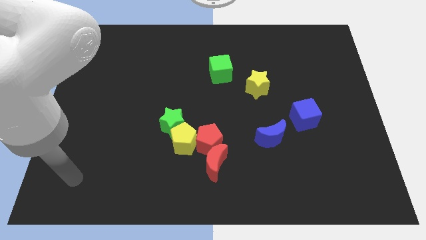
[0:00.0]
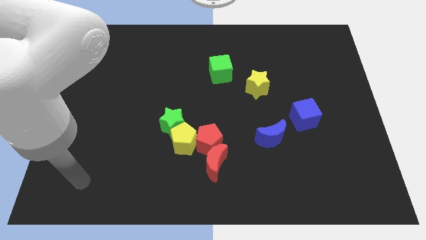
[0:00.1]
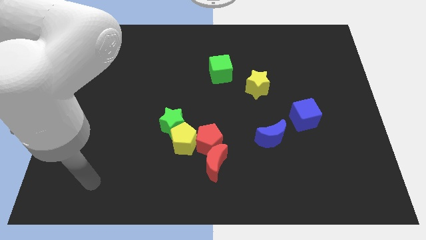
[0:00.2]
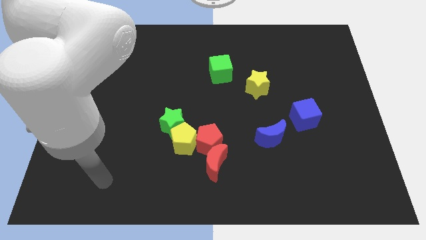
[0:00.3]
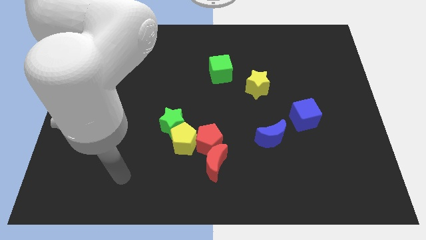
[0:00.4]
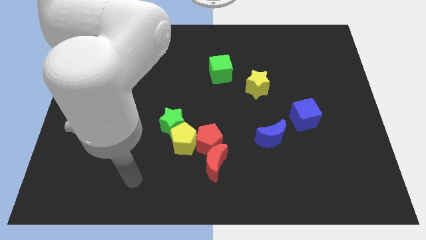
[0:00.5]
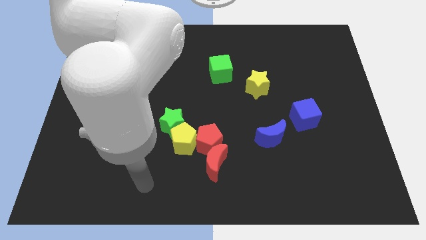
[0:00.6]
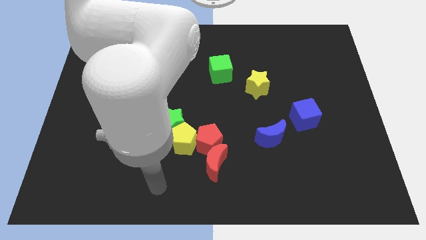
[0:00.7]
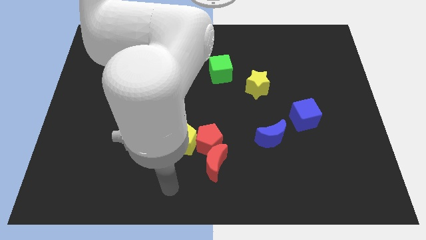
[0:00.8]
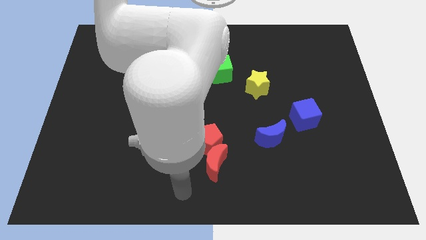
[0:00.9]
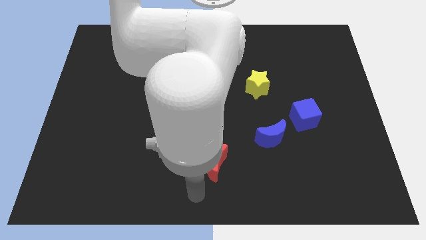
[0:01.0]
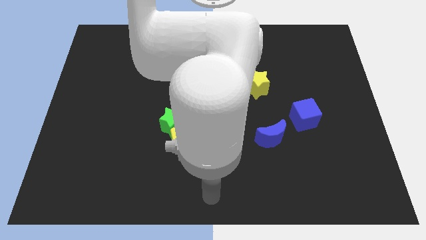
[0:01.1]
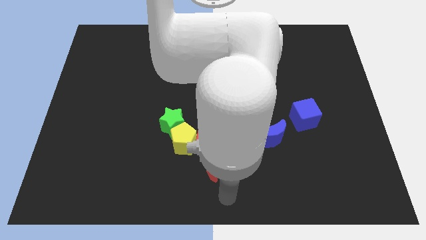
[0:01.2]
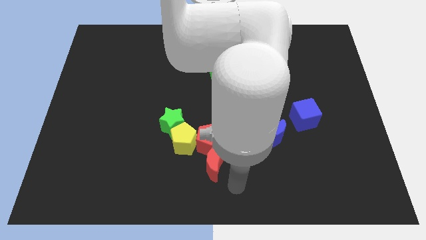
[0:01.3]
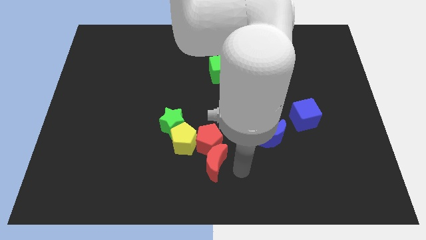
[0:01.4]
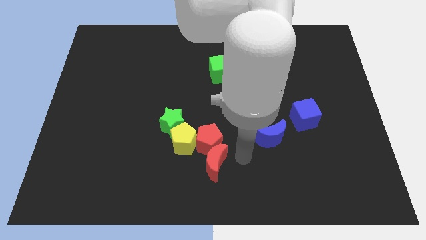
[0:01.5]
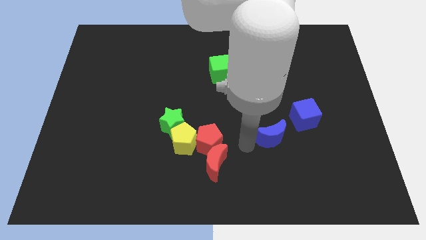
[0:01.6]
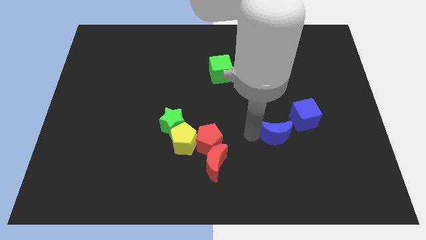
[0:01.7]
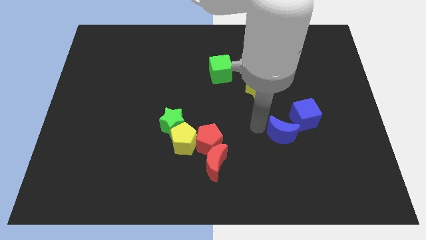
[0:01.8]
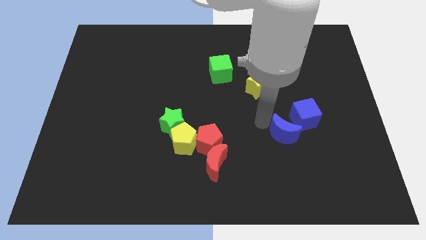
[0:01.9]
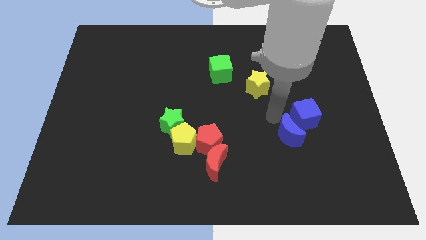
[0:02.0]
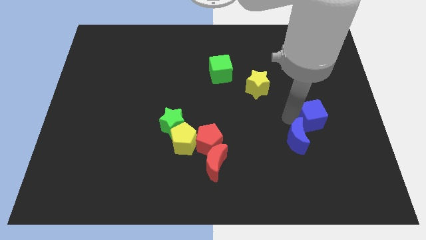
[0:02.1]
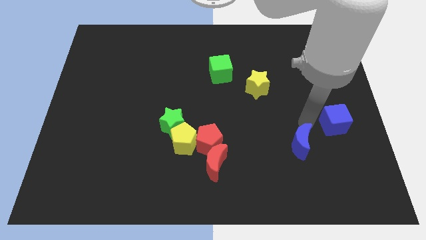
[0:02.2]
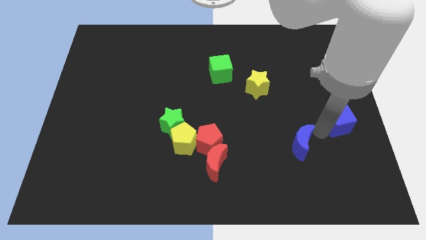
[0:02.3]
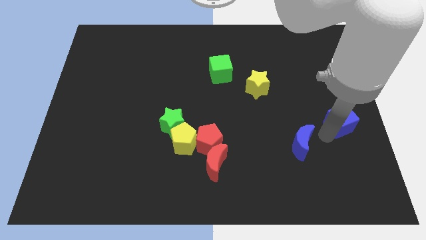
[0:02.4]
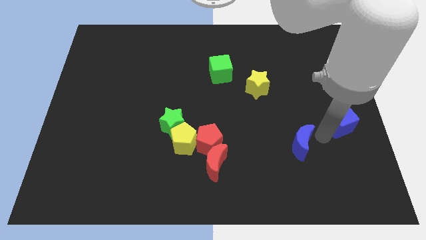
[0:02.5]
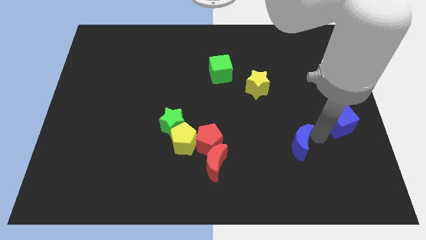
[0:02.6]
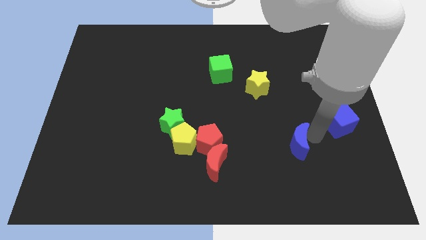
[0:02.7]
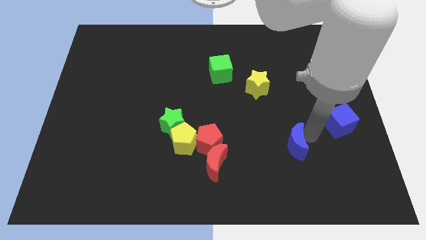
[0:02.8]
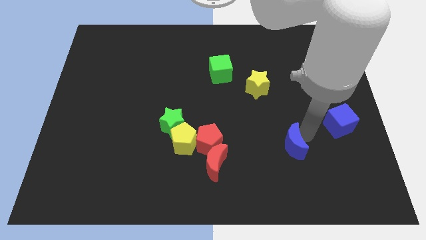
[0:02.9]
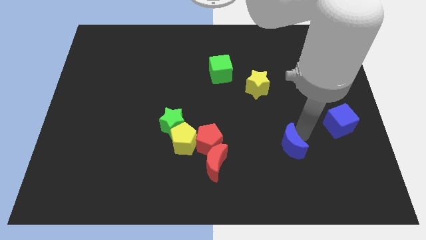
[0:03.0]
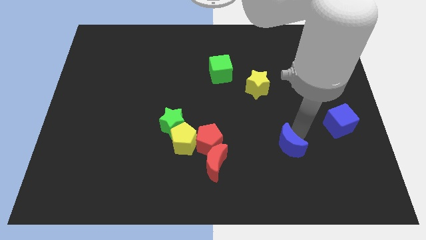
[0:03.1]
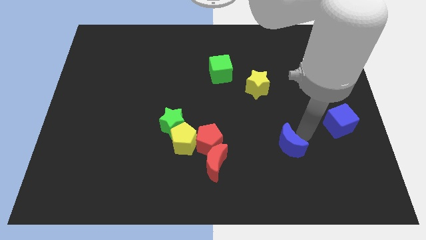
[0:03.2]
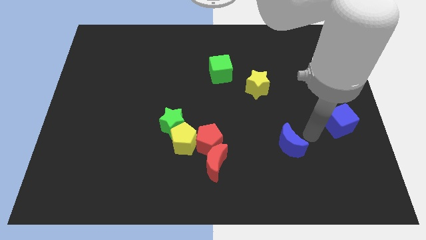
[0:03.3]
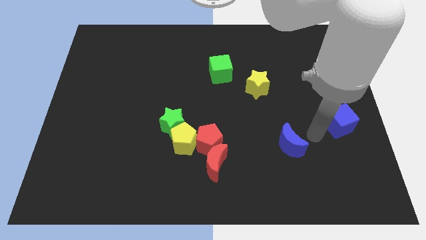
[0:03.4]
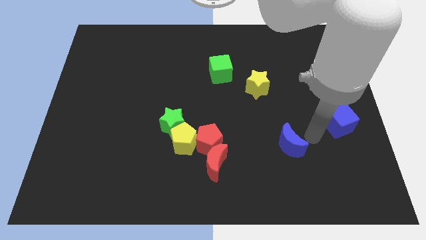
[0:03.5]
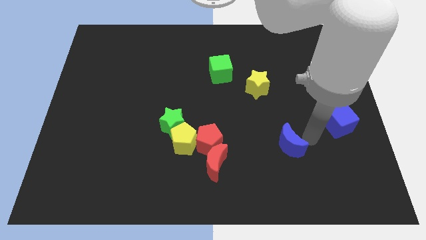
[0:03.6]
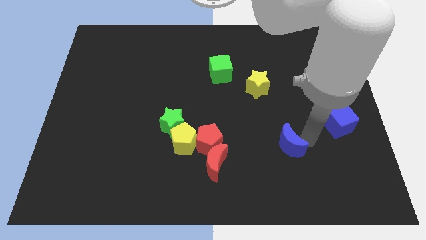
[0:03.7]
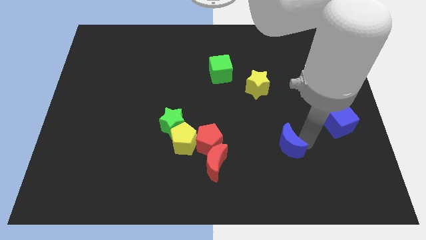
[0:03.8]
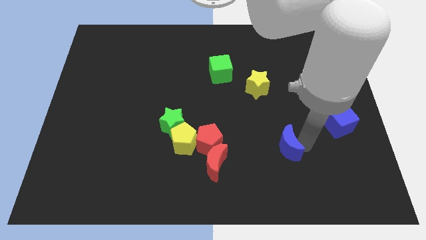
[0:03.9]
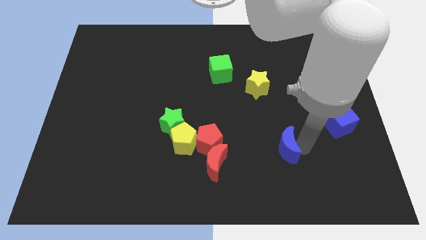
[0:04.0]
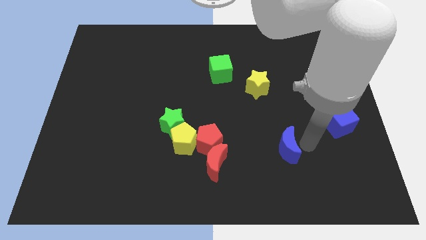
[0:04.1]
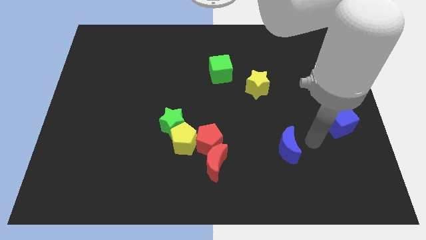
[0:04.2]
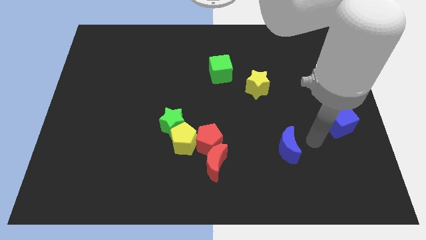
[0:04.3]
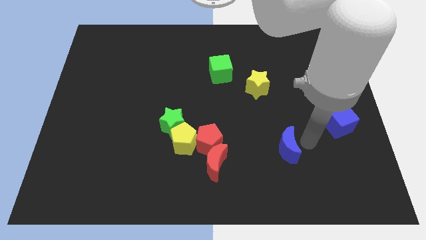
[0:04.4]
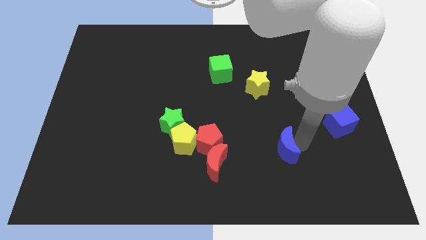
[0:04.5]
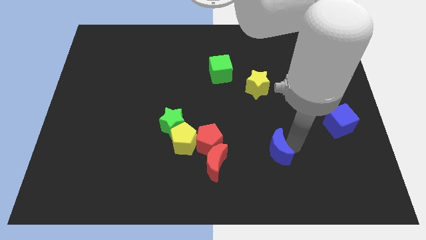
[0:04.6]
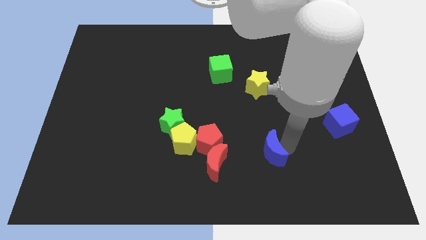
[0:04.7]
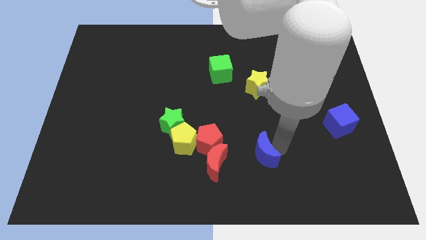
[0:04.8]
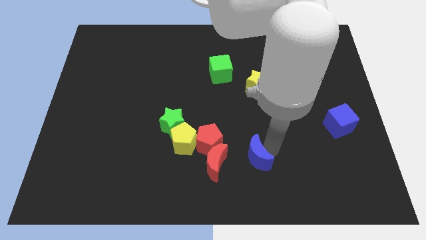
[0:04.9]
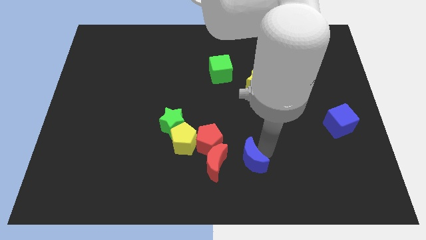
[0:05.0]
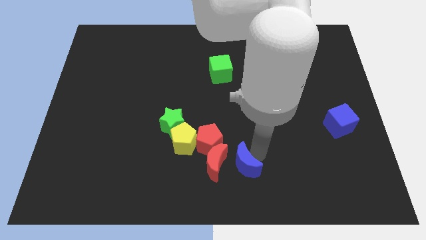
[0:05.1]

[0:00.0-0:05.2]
slide the blue moon to the bottom

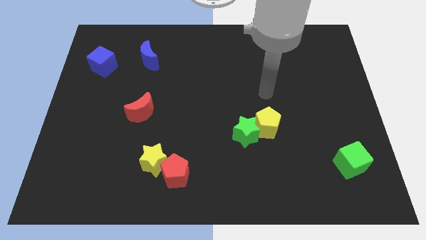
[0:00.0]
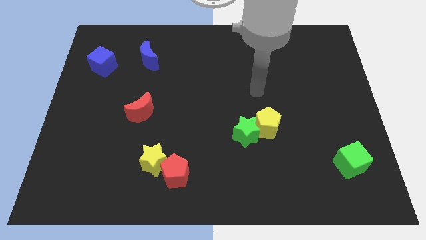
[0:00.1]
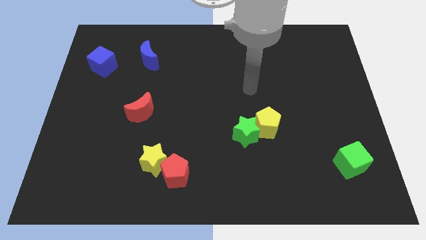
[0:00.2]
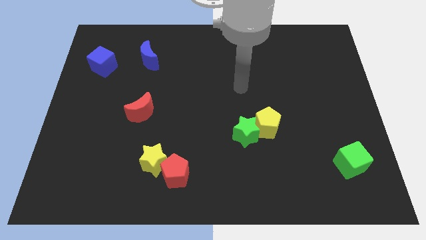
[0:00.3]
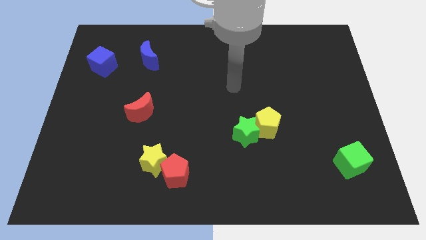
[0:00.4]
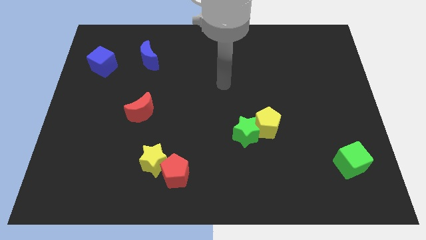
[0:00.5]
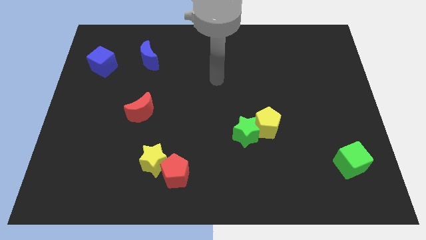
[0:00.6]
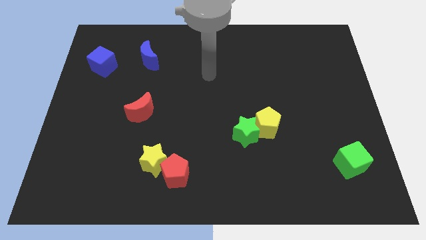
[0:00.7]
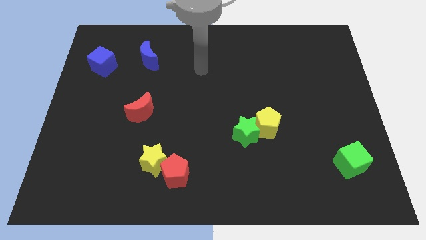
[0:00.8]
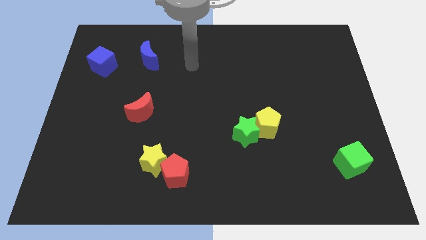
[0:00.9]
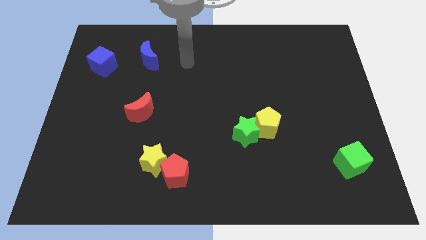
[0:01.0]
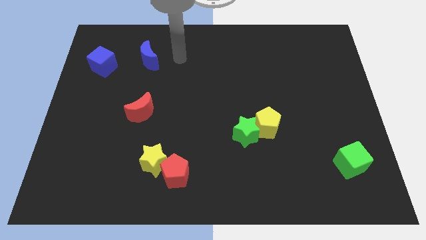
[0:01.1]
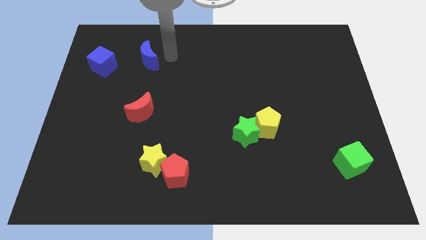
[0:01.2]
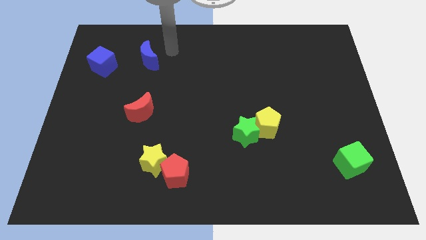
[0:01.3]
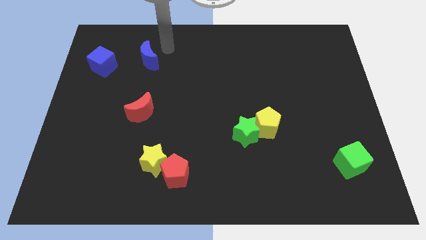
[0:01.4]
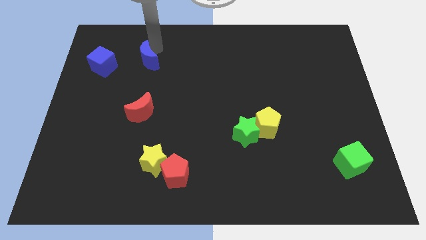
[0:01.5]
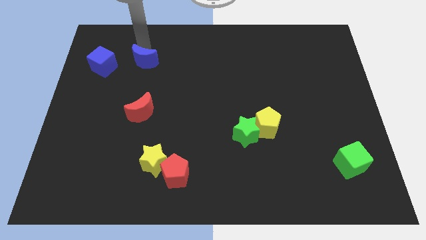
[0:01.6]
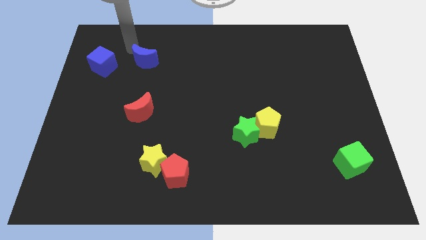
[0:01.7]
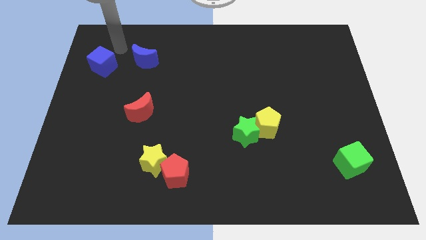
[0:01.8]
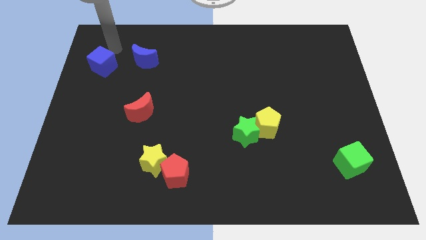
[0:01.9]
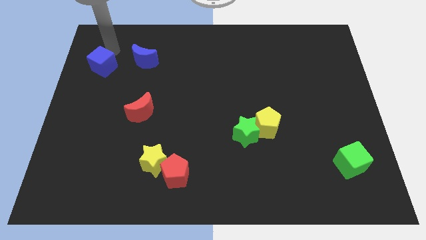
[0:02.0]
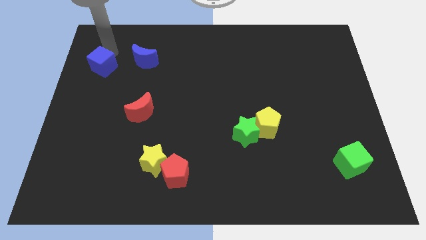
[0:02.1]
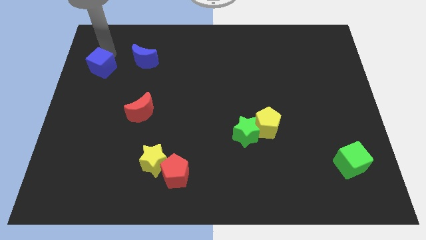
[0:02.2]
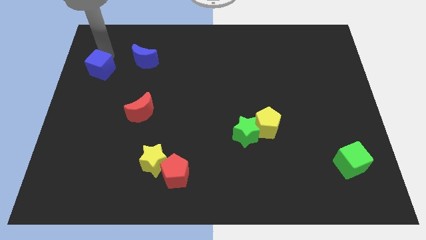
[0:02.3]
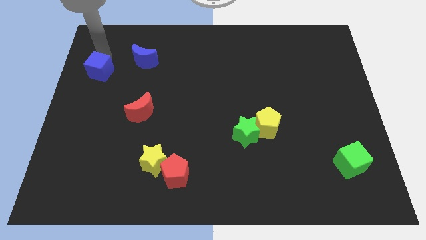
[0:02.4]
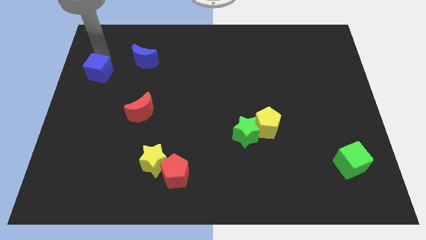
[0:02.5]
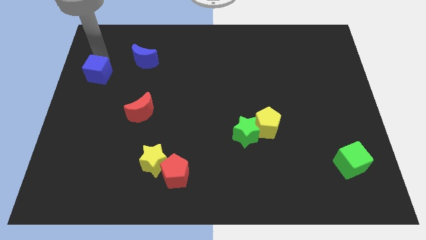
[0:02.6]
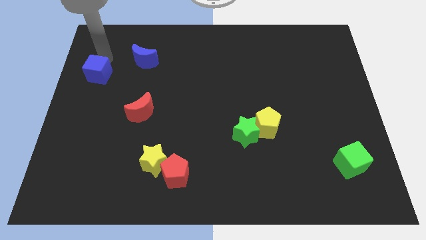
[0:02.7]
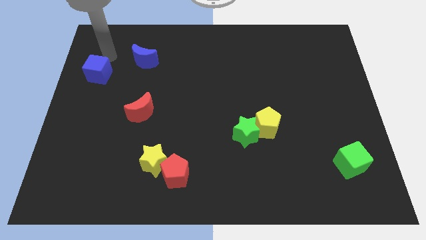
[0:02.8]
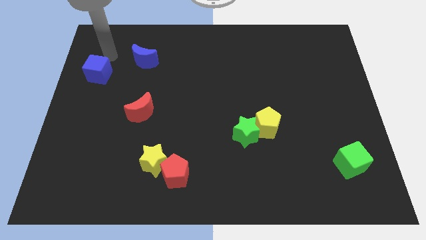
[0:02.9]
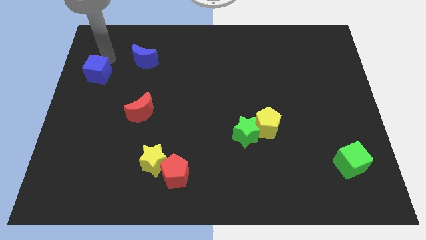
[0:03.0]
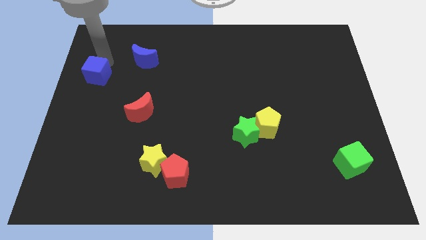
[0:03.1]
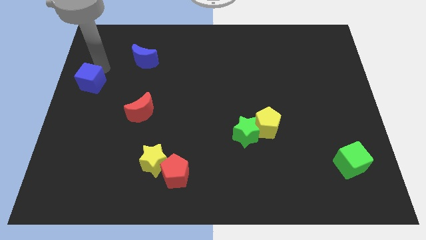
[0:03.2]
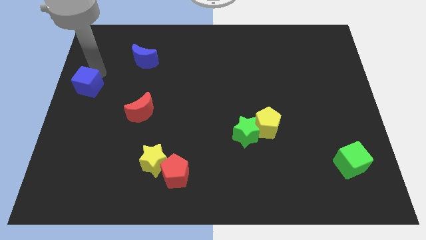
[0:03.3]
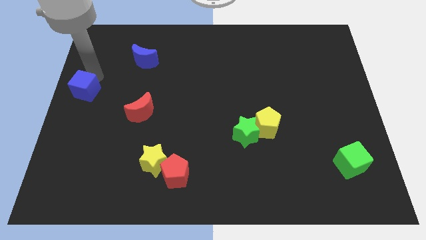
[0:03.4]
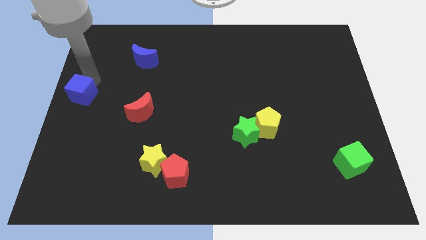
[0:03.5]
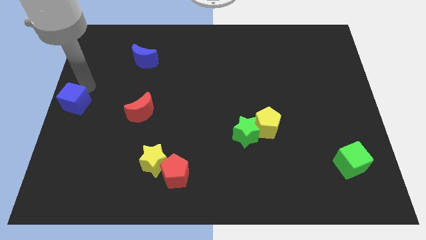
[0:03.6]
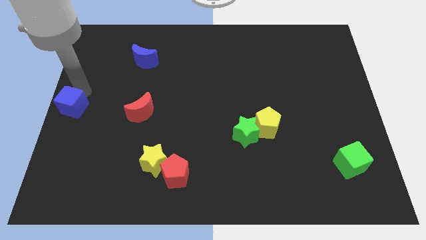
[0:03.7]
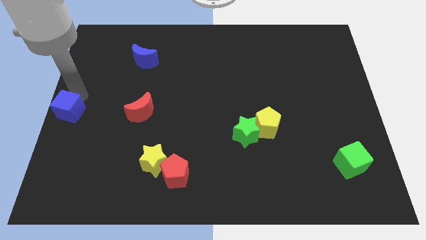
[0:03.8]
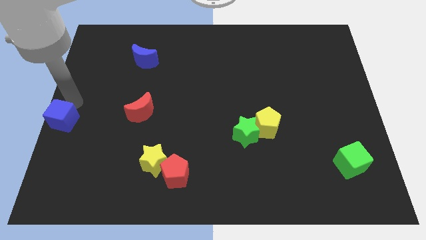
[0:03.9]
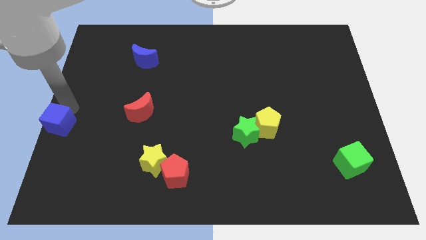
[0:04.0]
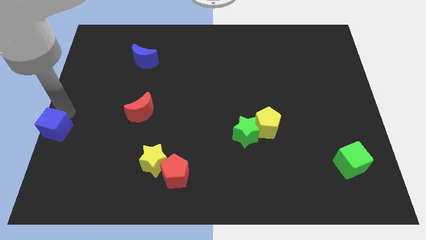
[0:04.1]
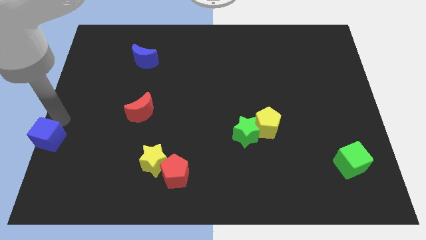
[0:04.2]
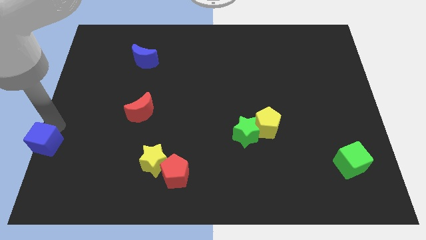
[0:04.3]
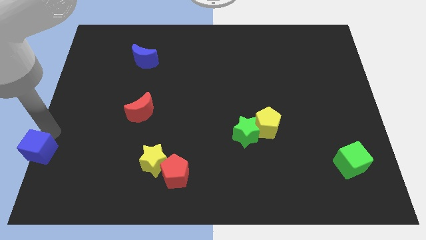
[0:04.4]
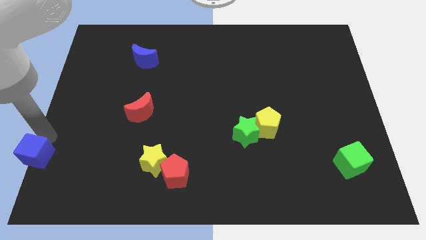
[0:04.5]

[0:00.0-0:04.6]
slide the blue cube to the bottom left corner
